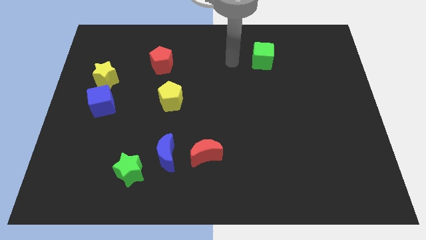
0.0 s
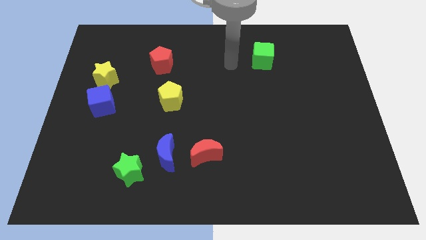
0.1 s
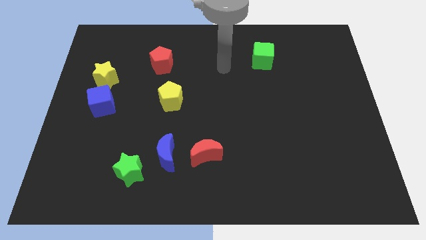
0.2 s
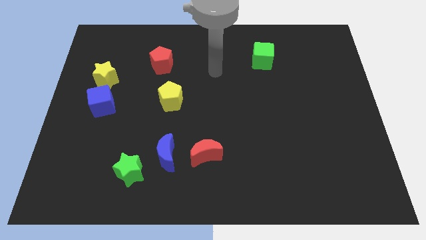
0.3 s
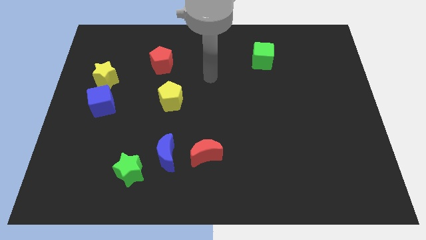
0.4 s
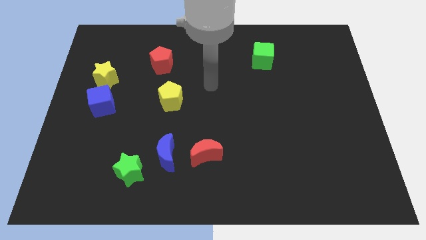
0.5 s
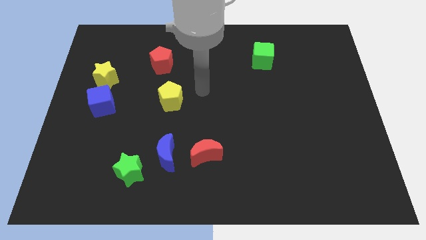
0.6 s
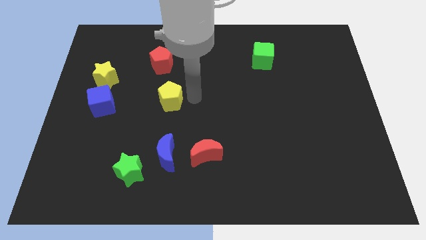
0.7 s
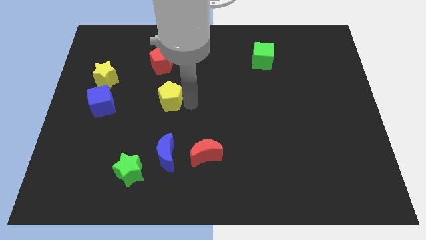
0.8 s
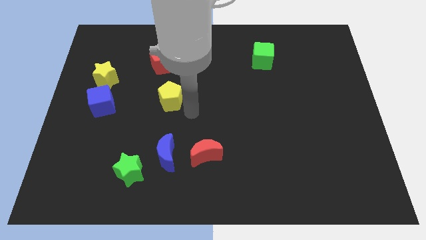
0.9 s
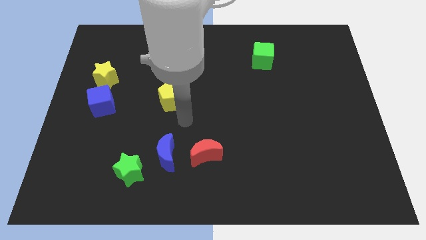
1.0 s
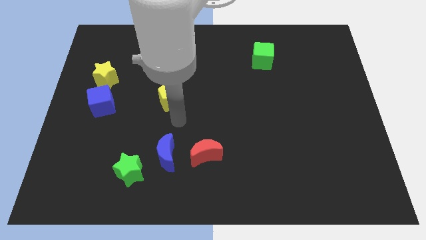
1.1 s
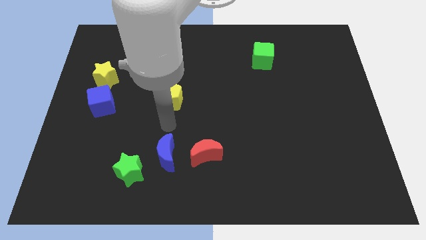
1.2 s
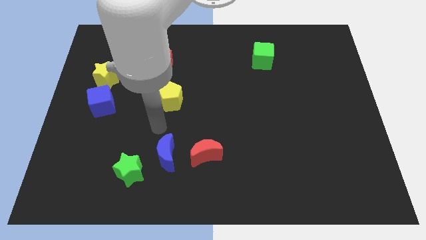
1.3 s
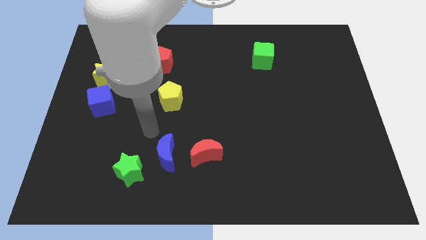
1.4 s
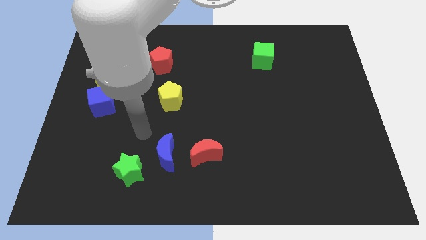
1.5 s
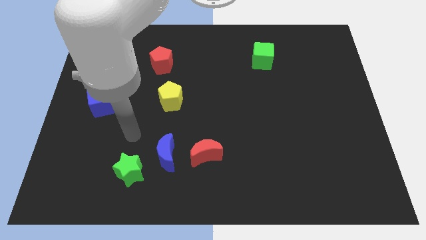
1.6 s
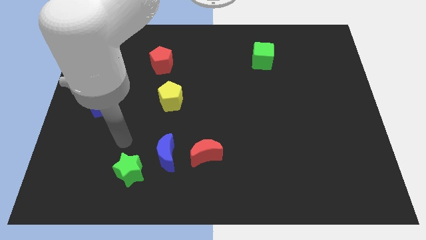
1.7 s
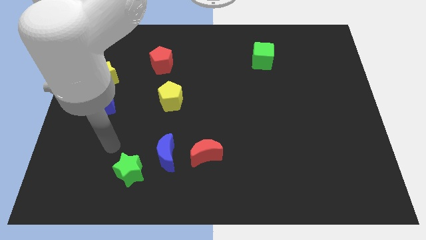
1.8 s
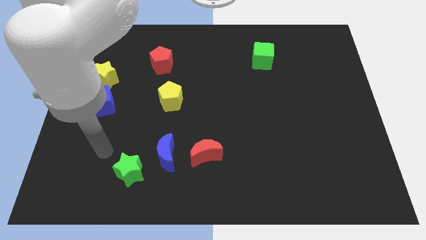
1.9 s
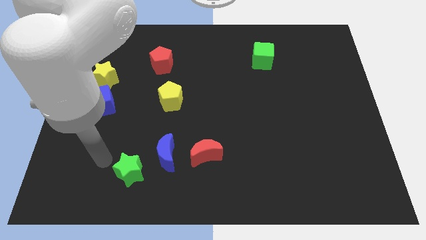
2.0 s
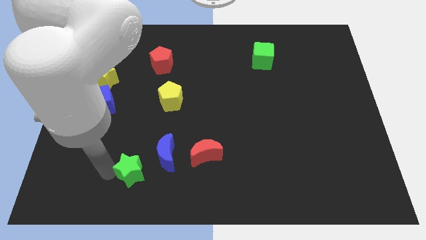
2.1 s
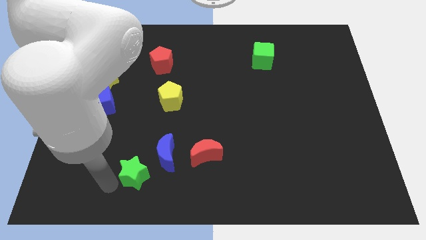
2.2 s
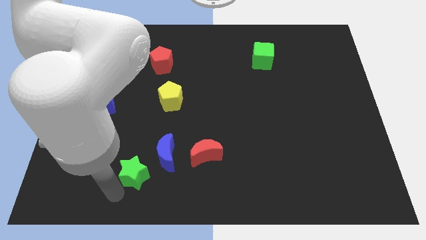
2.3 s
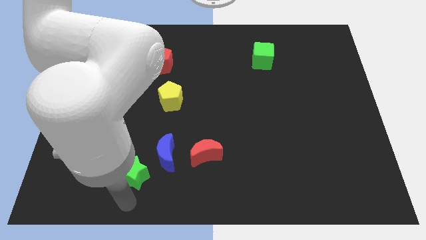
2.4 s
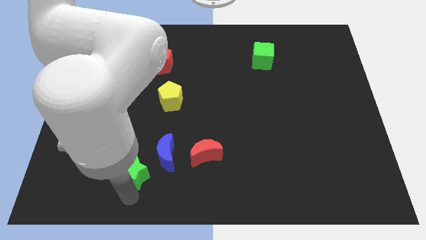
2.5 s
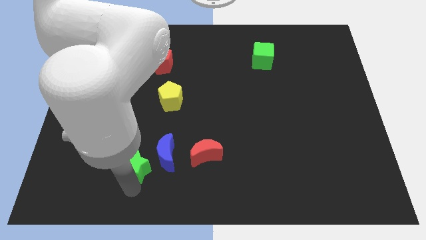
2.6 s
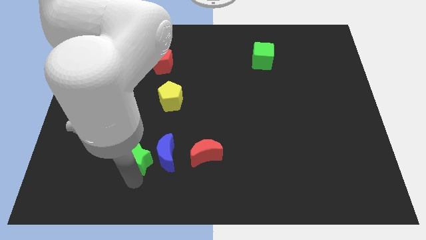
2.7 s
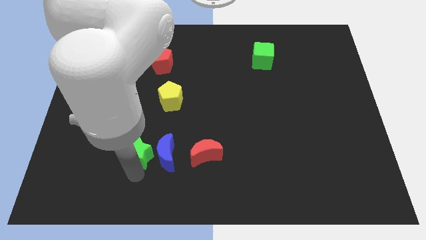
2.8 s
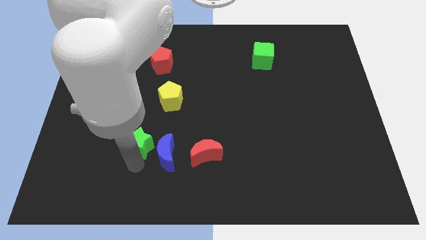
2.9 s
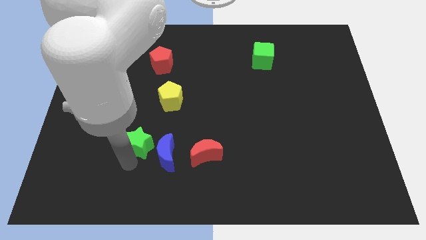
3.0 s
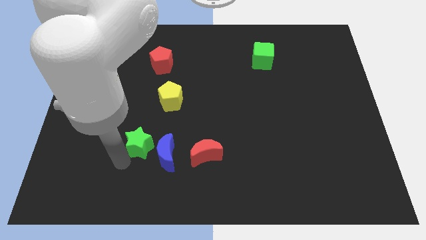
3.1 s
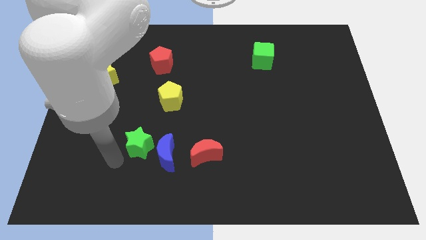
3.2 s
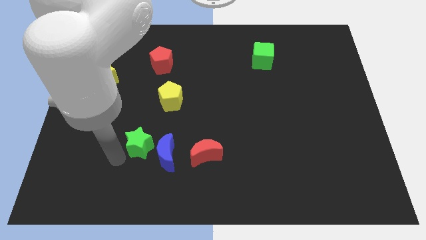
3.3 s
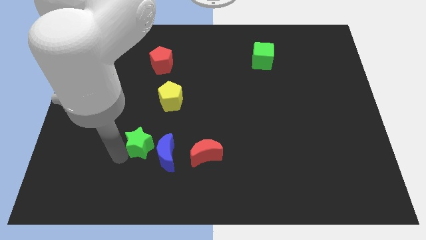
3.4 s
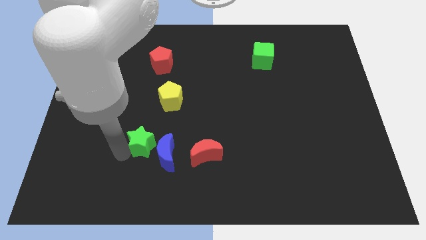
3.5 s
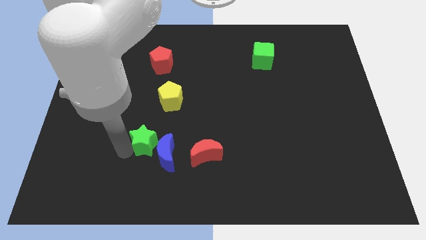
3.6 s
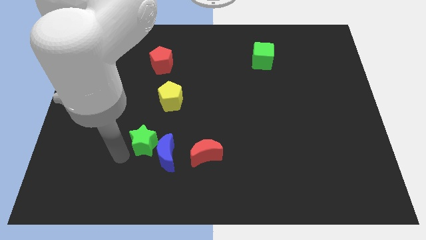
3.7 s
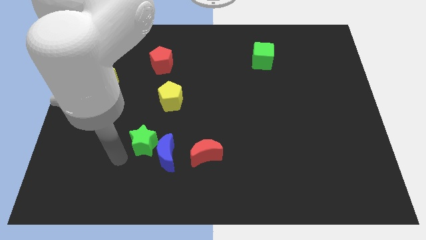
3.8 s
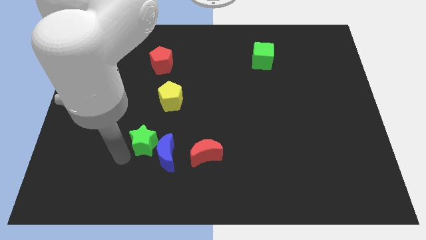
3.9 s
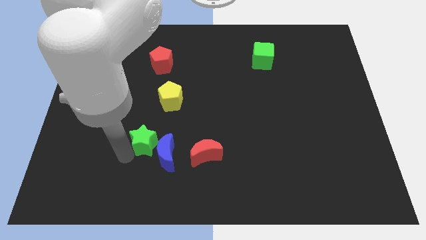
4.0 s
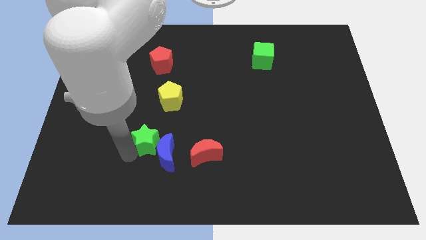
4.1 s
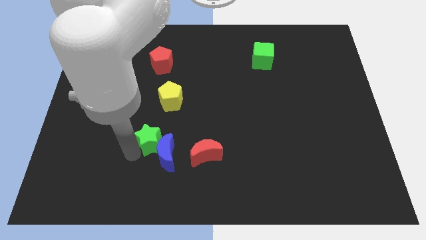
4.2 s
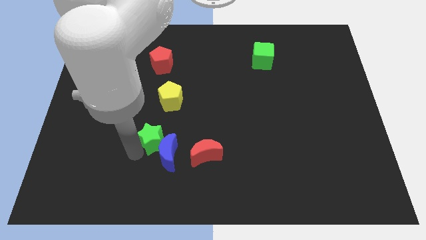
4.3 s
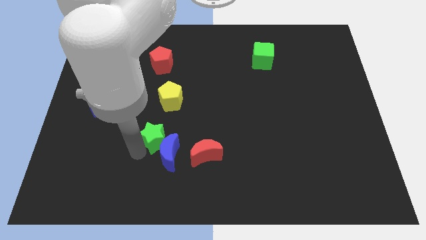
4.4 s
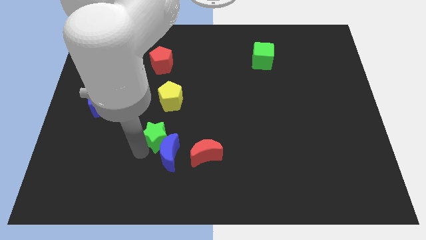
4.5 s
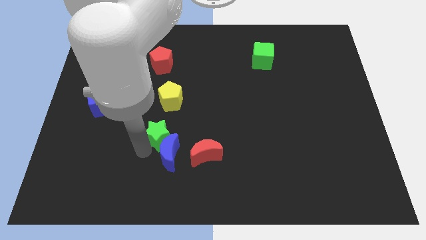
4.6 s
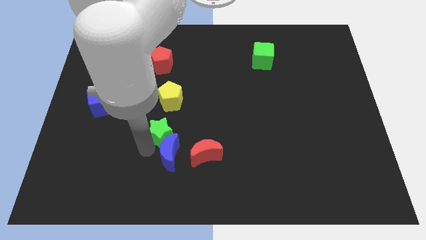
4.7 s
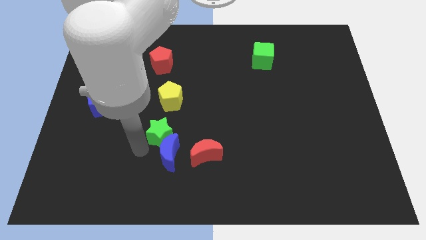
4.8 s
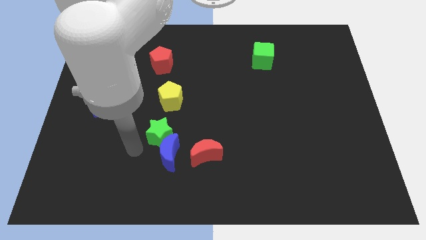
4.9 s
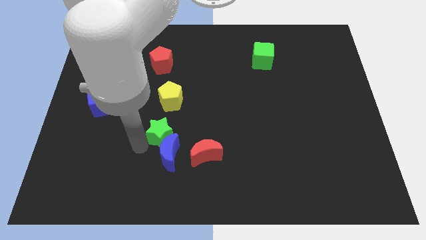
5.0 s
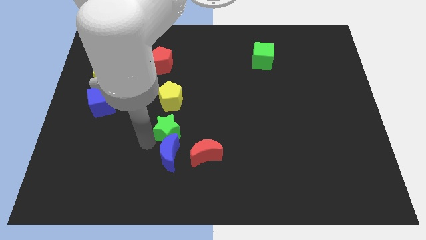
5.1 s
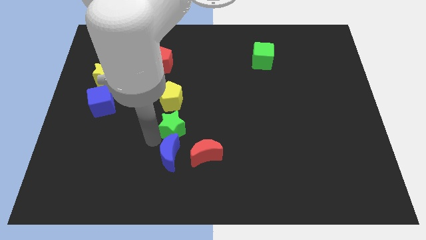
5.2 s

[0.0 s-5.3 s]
move the green star to the middle of the board
